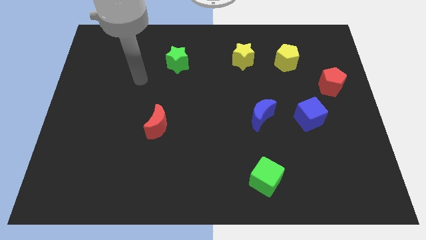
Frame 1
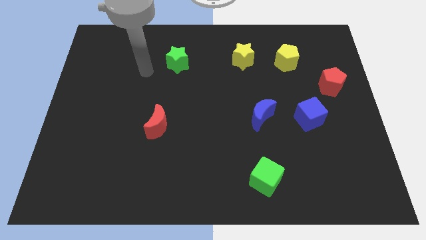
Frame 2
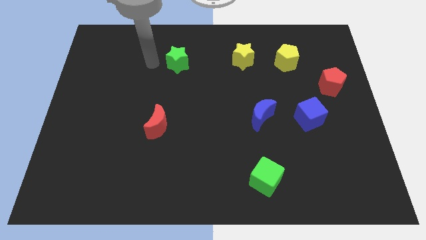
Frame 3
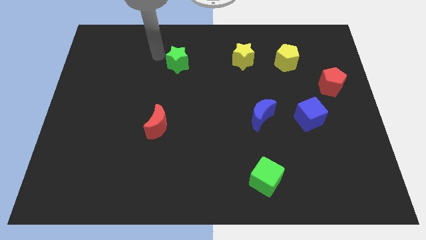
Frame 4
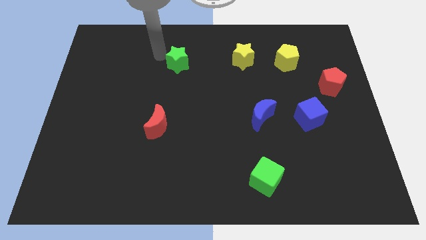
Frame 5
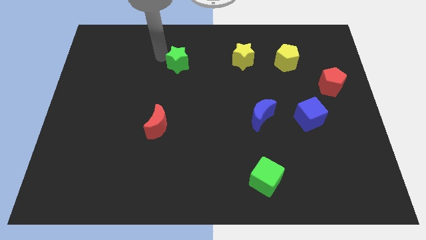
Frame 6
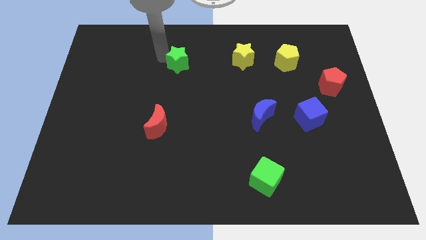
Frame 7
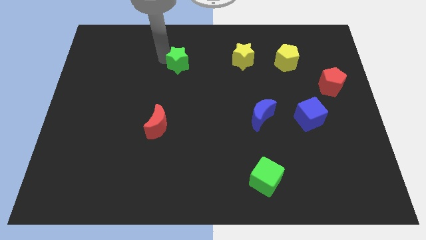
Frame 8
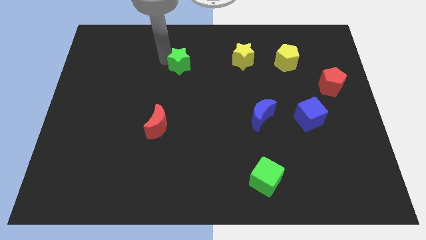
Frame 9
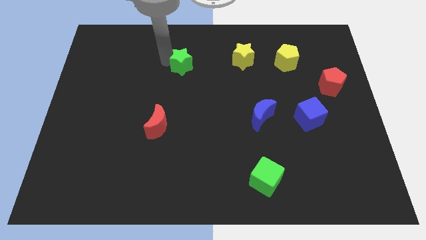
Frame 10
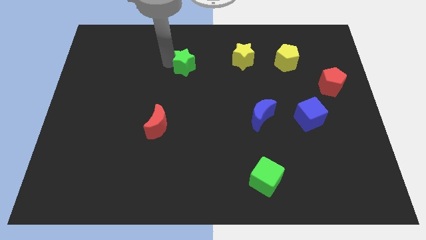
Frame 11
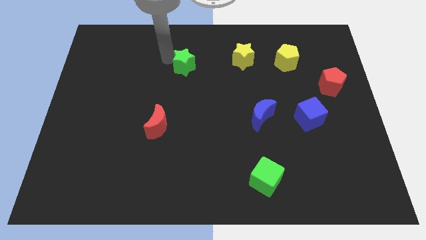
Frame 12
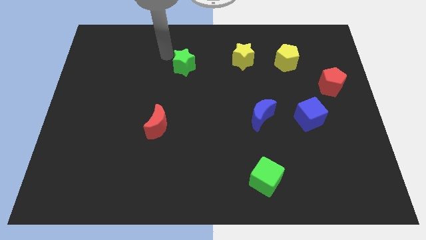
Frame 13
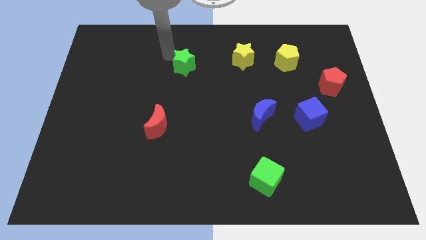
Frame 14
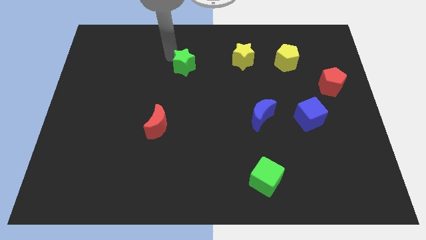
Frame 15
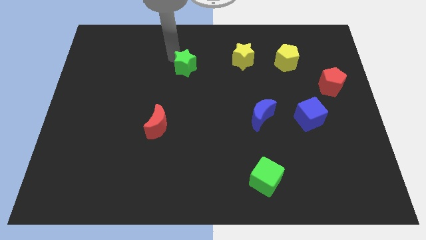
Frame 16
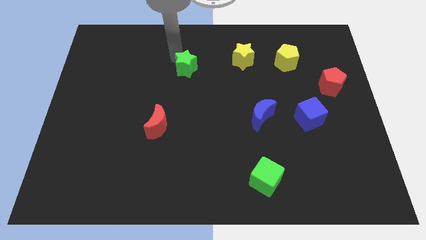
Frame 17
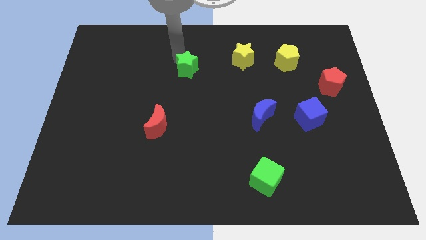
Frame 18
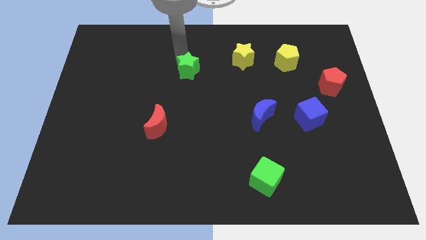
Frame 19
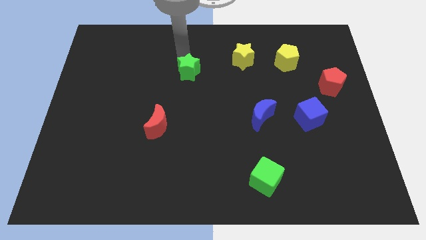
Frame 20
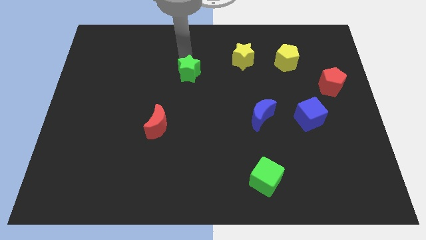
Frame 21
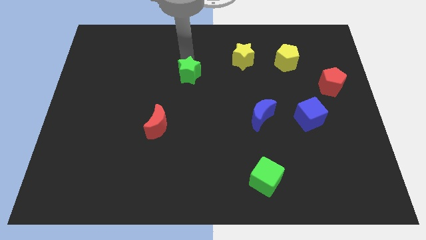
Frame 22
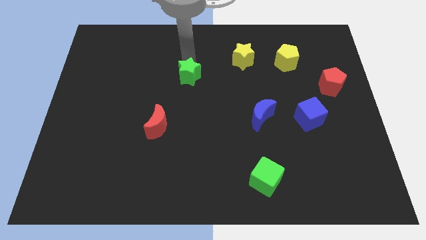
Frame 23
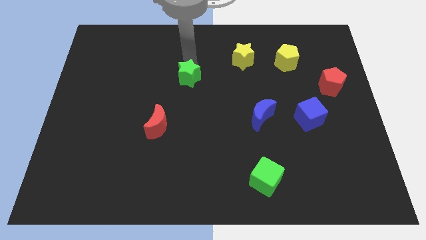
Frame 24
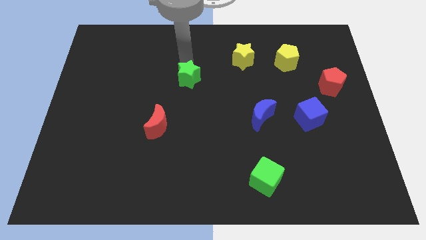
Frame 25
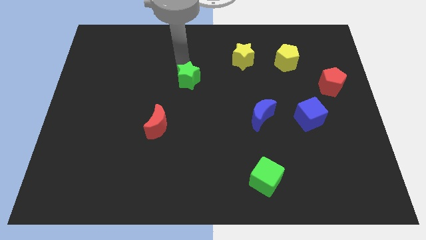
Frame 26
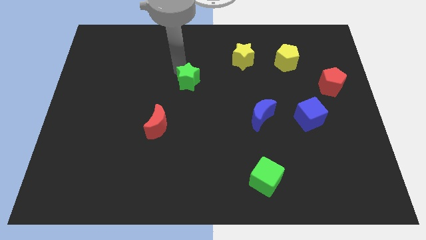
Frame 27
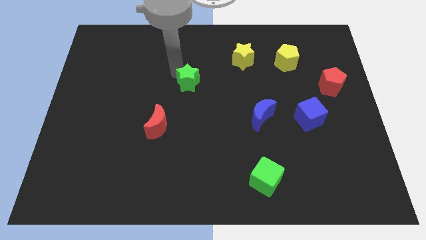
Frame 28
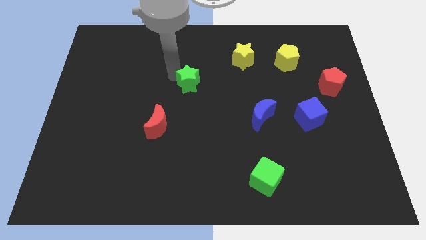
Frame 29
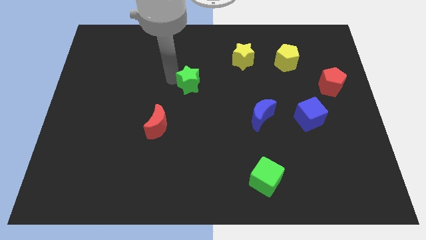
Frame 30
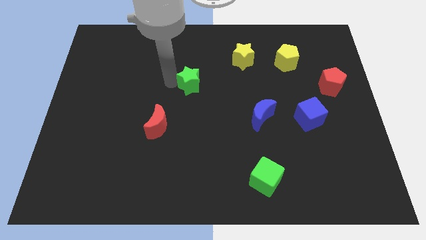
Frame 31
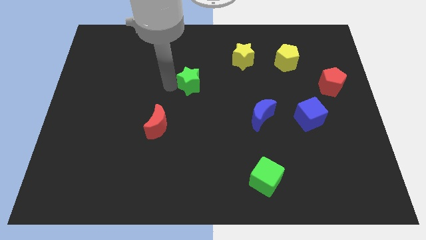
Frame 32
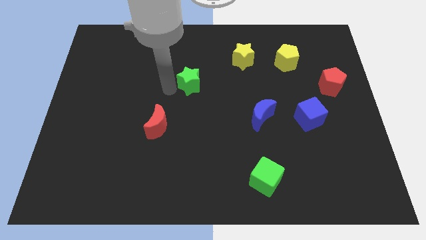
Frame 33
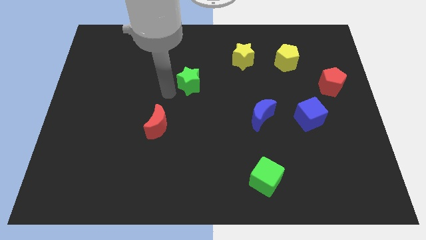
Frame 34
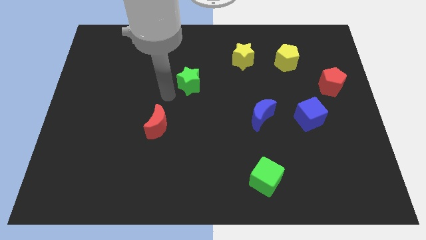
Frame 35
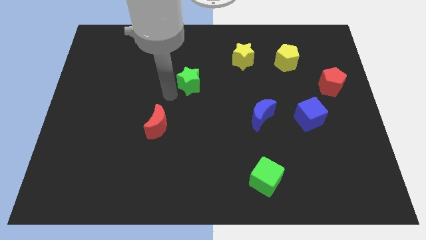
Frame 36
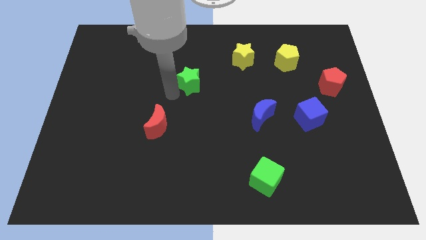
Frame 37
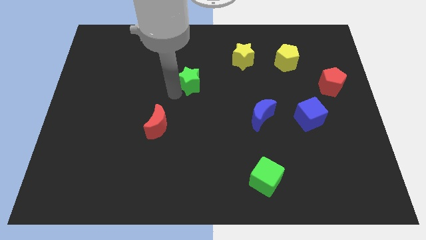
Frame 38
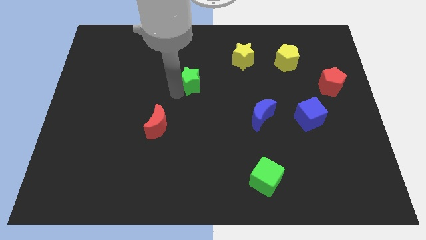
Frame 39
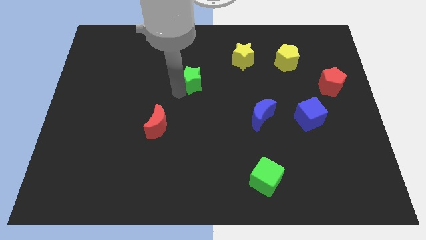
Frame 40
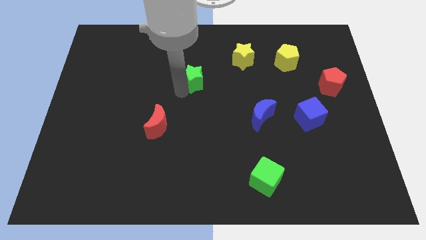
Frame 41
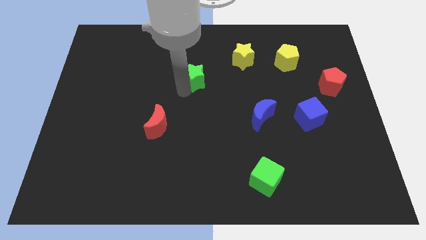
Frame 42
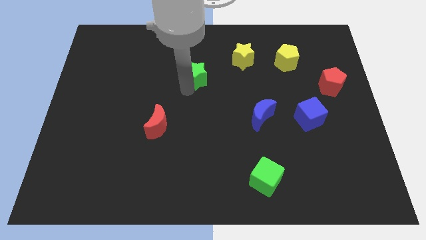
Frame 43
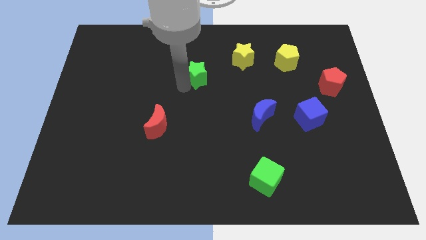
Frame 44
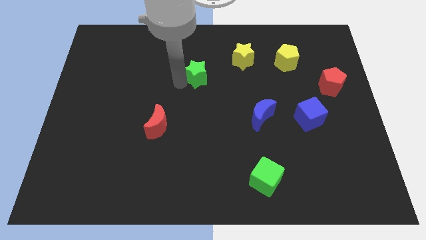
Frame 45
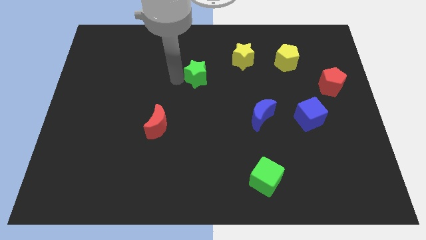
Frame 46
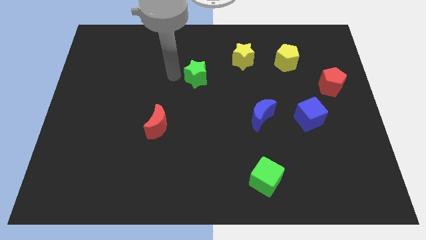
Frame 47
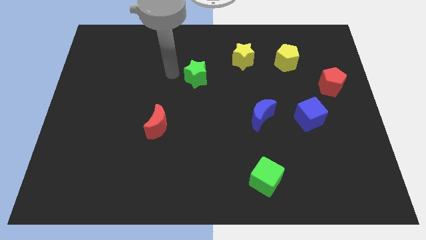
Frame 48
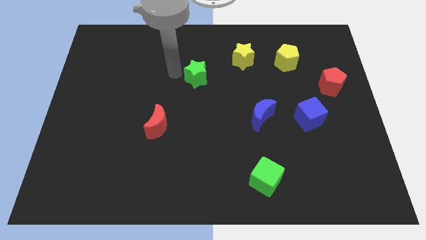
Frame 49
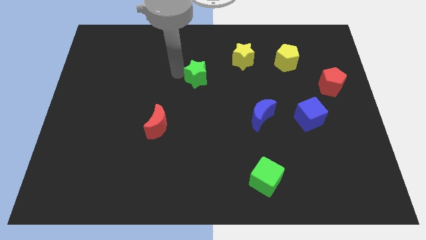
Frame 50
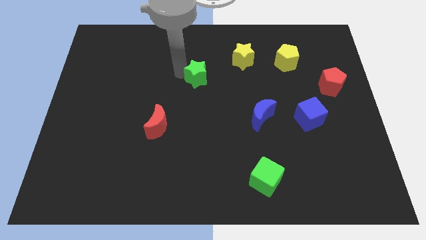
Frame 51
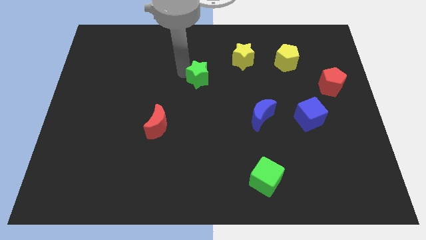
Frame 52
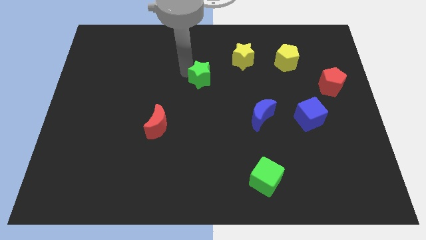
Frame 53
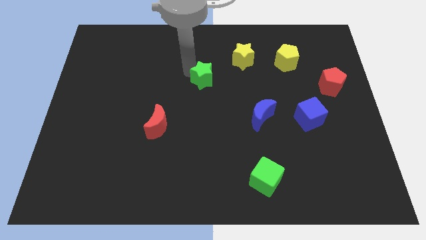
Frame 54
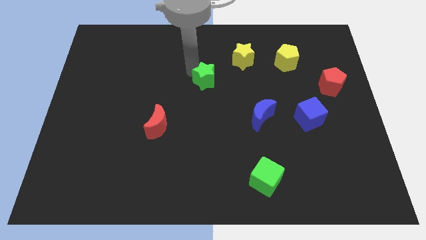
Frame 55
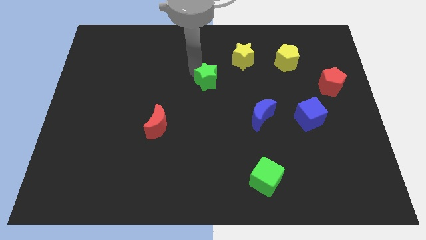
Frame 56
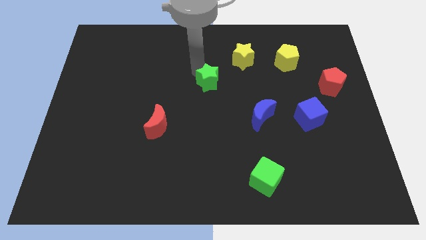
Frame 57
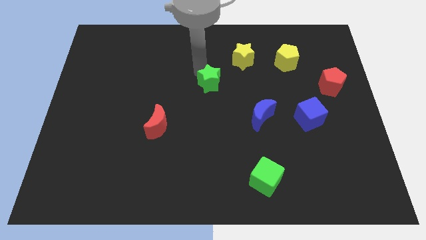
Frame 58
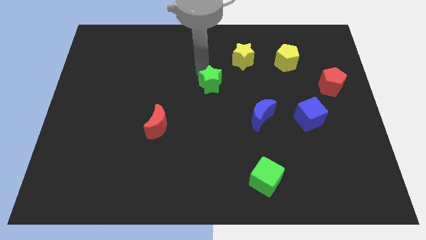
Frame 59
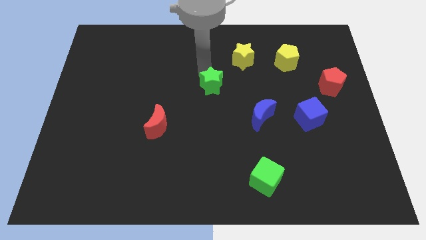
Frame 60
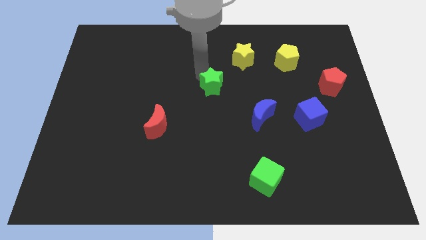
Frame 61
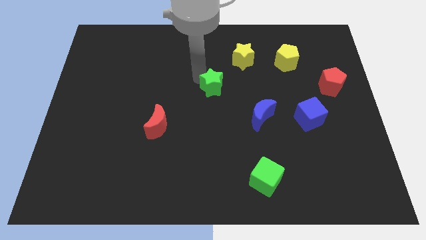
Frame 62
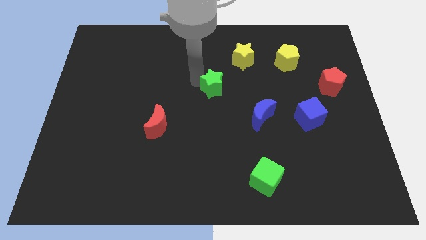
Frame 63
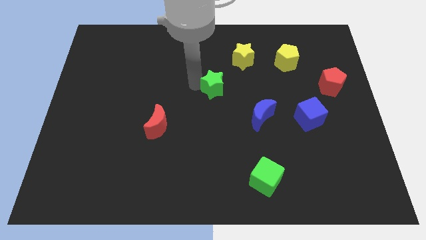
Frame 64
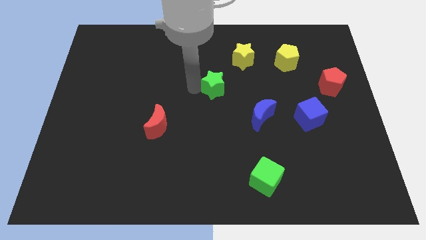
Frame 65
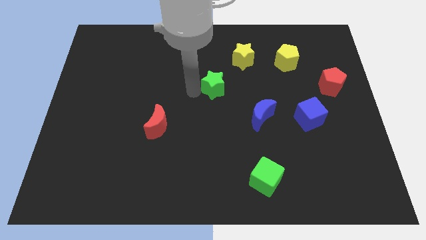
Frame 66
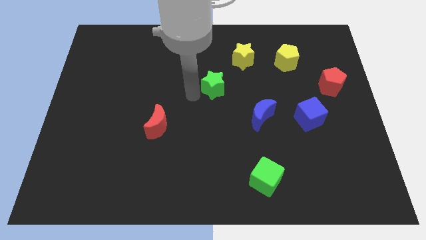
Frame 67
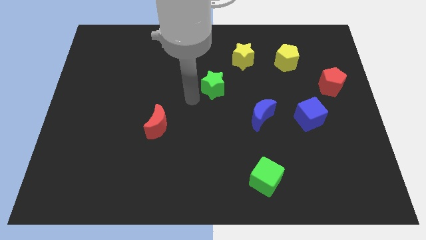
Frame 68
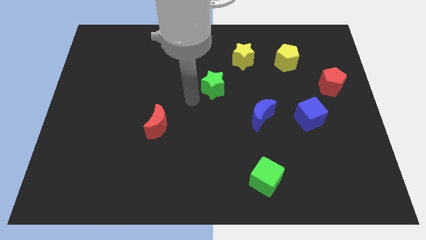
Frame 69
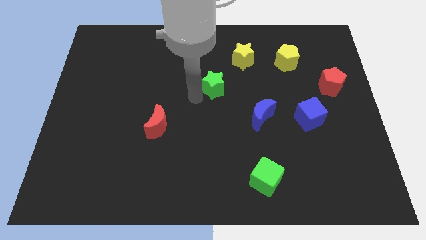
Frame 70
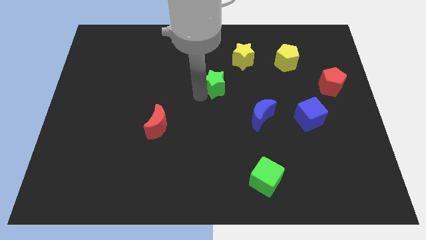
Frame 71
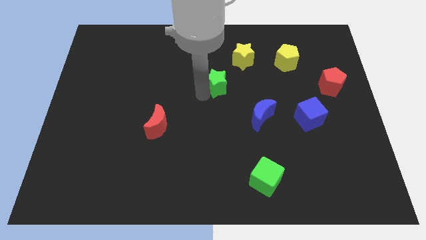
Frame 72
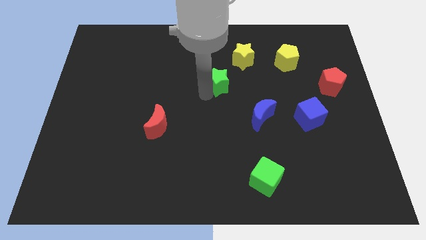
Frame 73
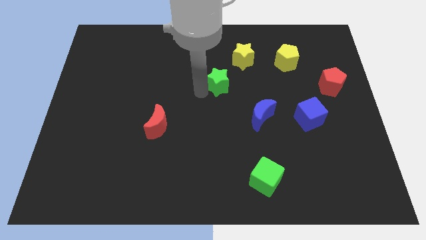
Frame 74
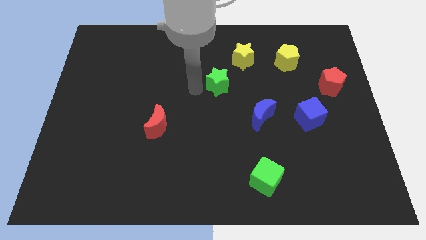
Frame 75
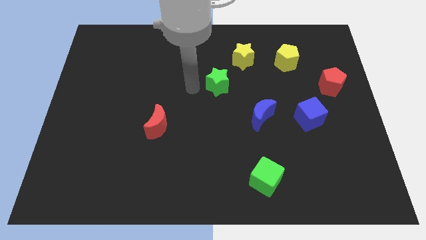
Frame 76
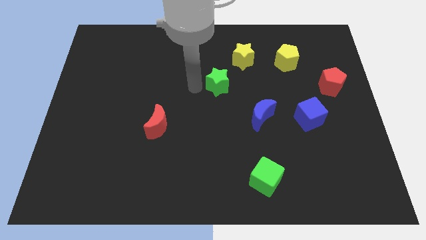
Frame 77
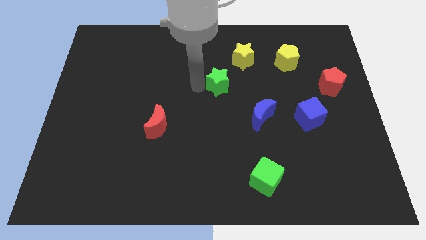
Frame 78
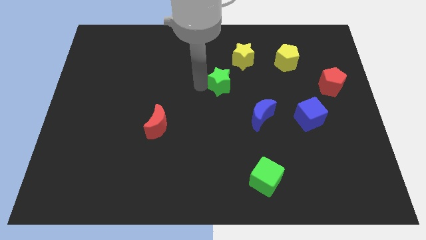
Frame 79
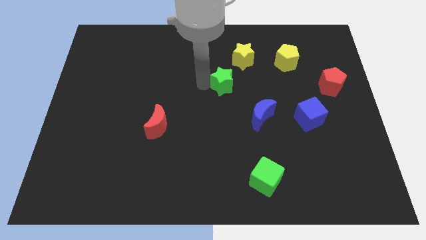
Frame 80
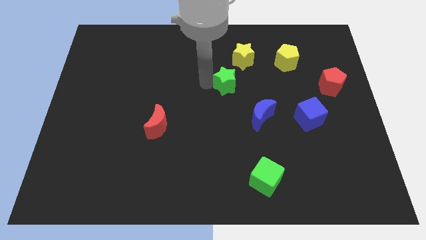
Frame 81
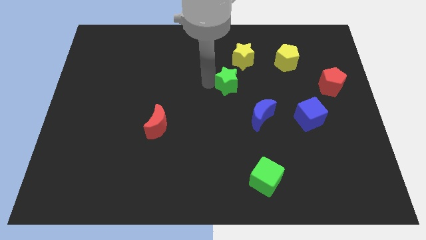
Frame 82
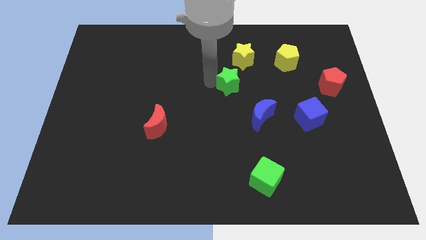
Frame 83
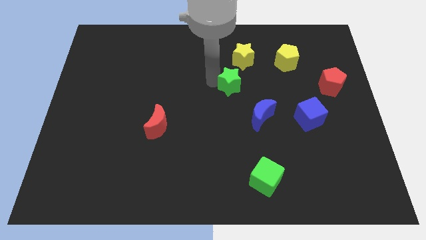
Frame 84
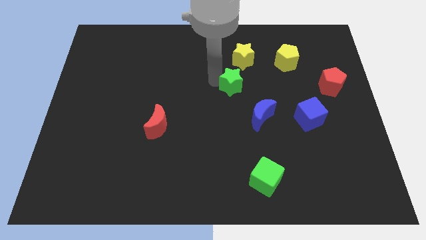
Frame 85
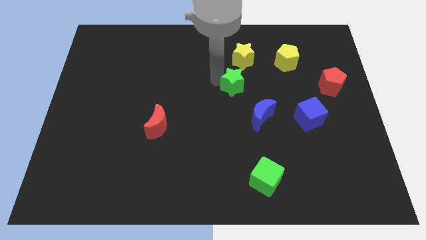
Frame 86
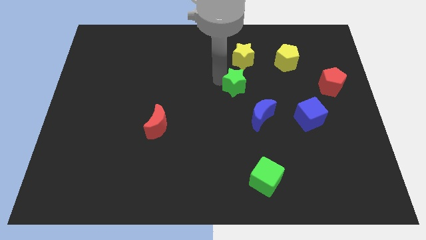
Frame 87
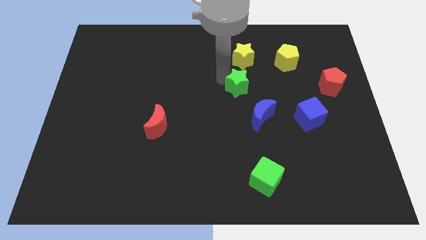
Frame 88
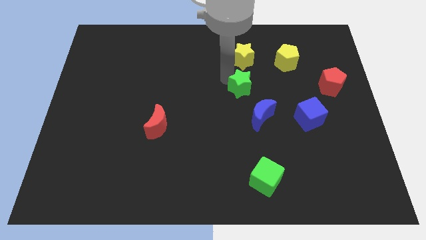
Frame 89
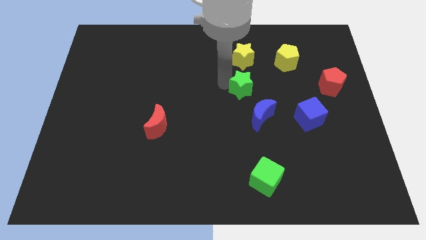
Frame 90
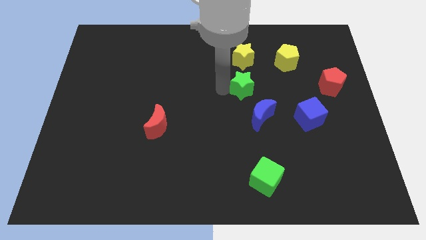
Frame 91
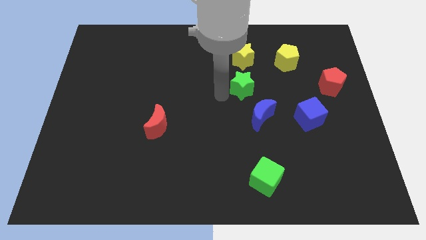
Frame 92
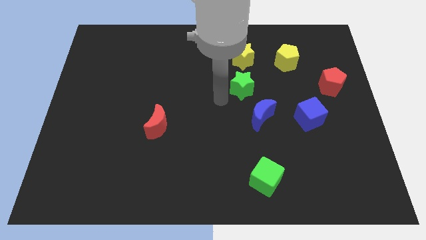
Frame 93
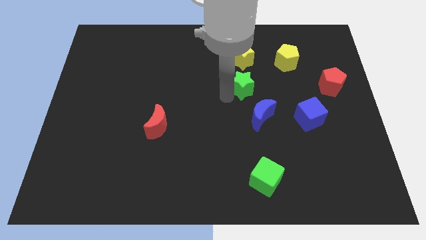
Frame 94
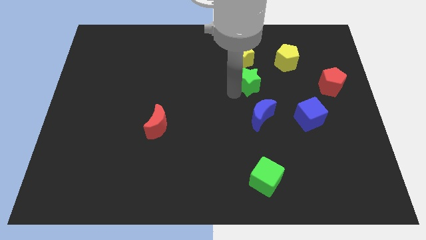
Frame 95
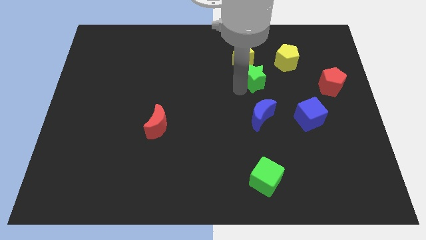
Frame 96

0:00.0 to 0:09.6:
move the green star to the bottom right side of the yellow star
